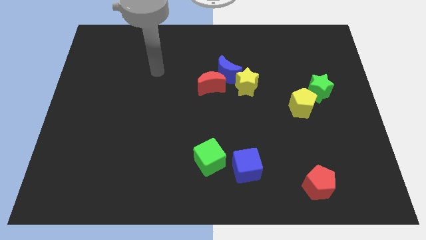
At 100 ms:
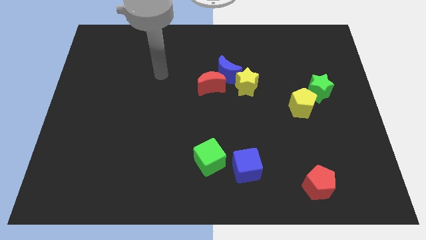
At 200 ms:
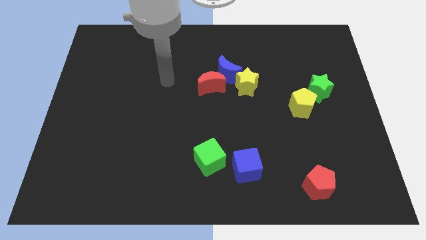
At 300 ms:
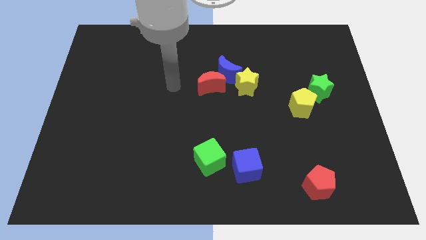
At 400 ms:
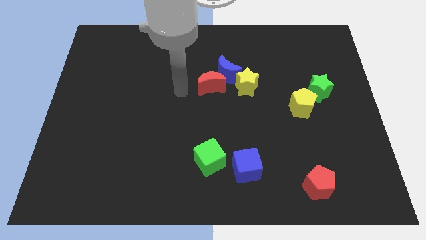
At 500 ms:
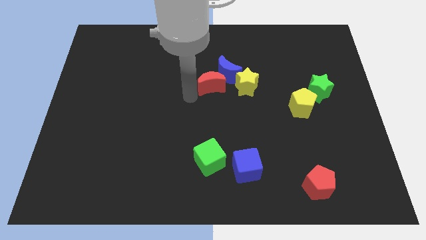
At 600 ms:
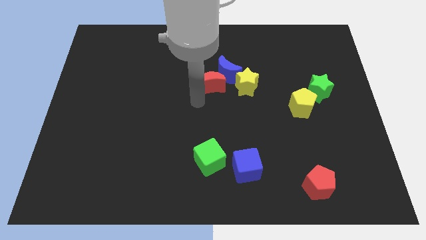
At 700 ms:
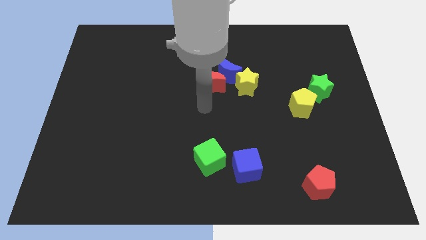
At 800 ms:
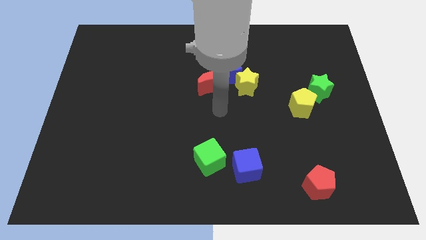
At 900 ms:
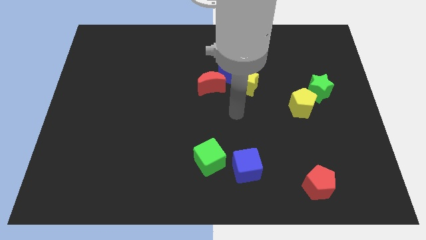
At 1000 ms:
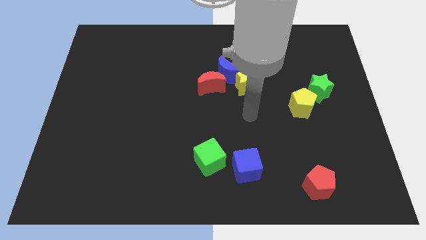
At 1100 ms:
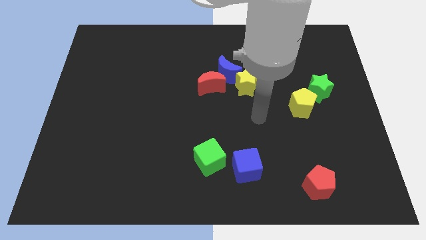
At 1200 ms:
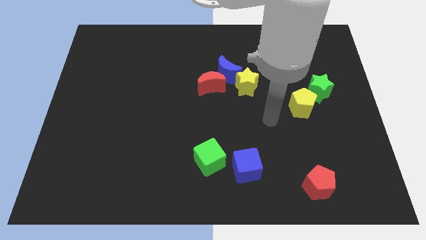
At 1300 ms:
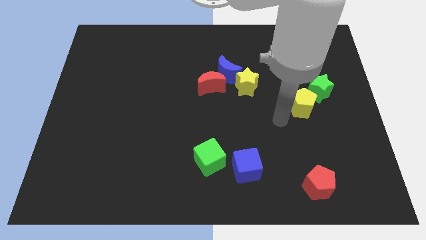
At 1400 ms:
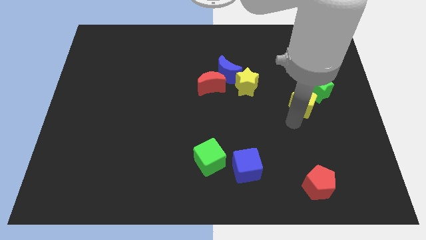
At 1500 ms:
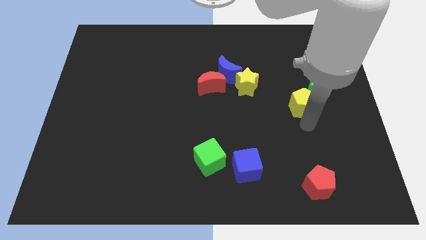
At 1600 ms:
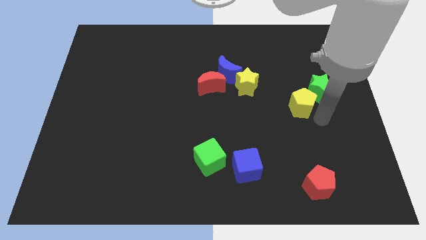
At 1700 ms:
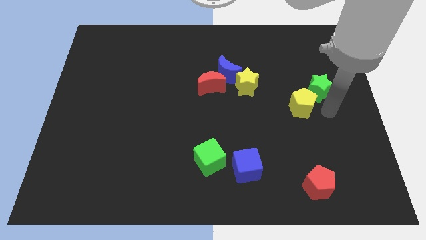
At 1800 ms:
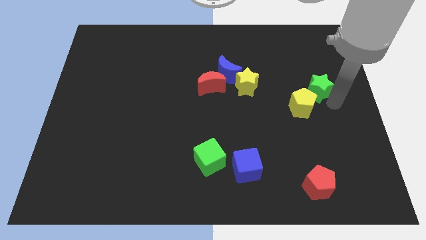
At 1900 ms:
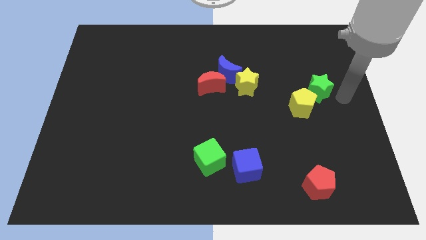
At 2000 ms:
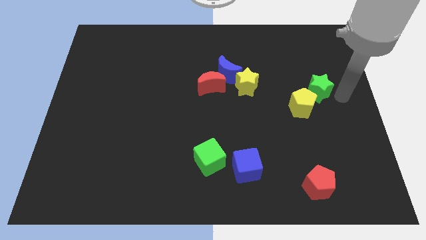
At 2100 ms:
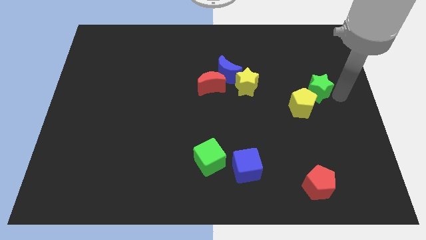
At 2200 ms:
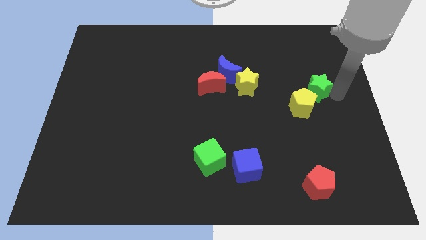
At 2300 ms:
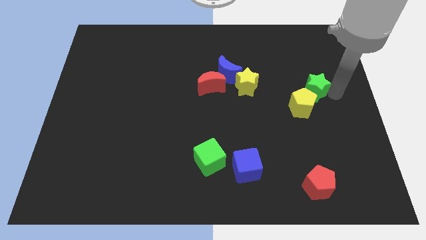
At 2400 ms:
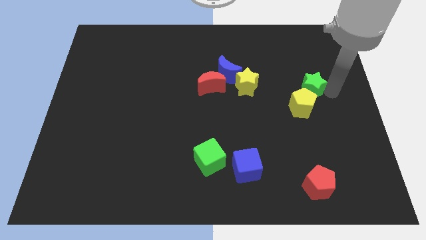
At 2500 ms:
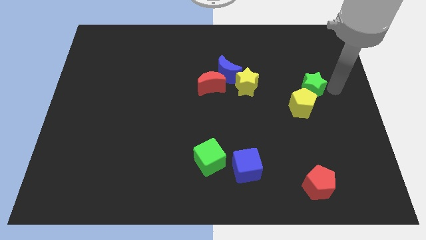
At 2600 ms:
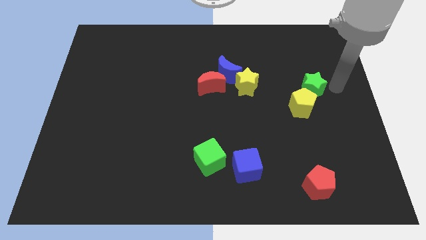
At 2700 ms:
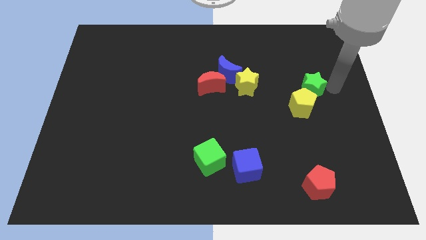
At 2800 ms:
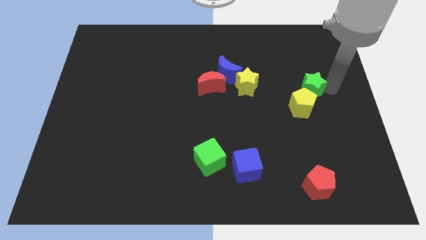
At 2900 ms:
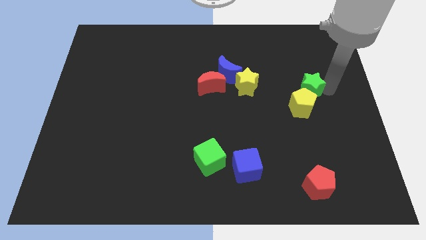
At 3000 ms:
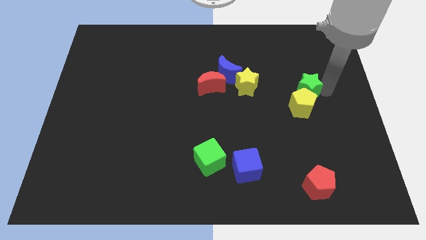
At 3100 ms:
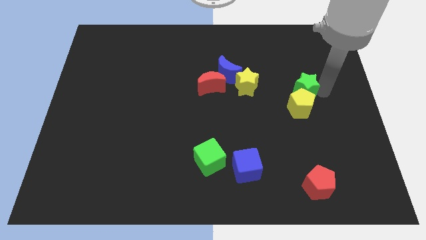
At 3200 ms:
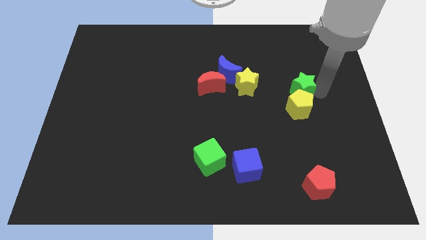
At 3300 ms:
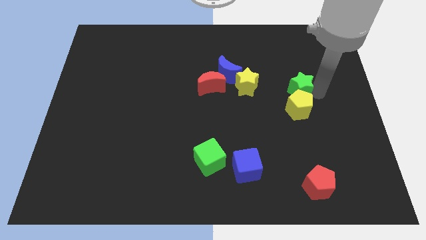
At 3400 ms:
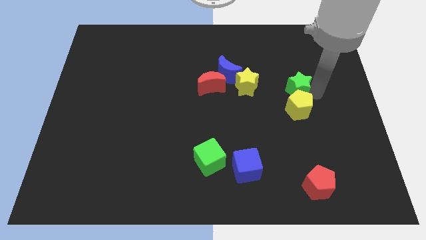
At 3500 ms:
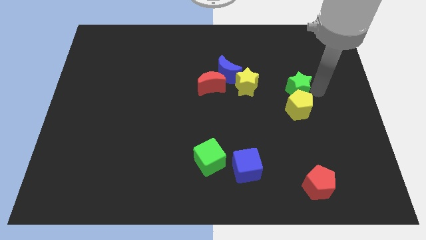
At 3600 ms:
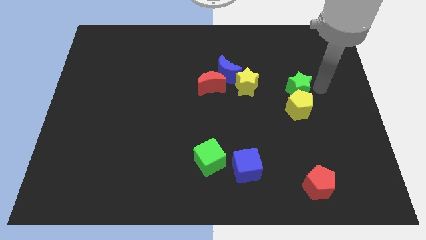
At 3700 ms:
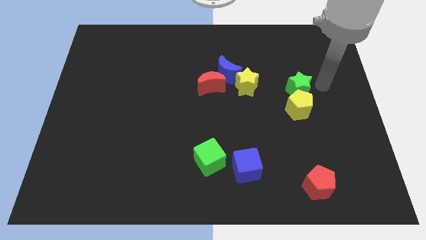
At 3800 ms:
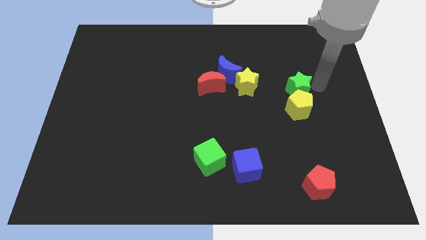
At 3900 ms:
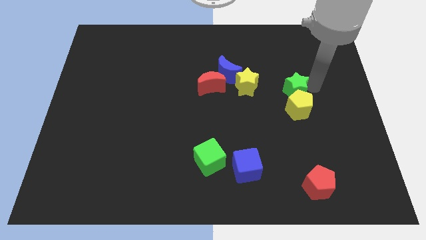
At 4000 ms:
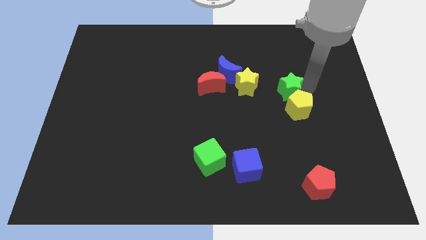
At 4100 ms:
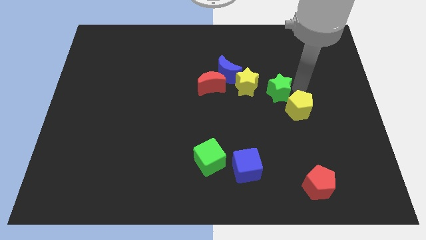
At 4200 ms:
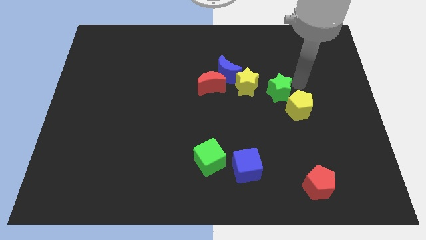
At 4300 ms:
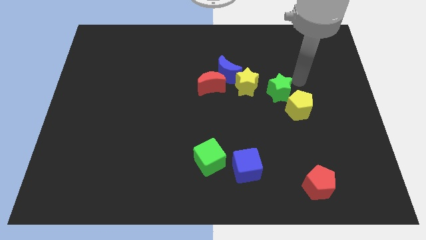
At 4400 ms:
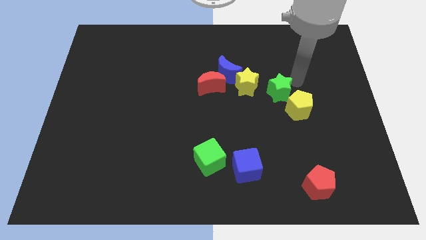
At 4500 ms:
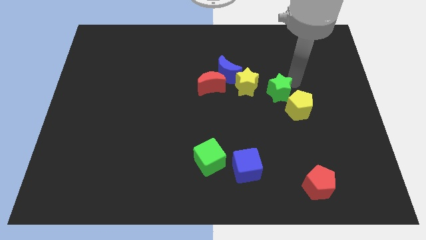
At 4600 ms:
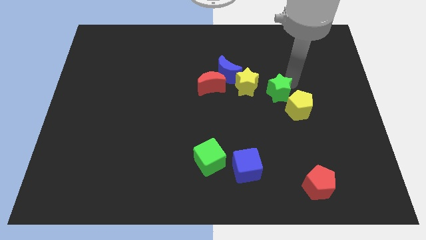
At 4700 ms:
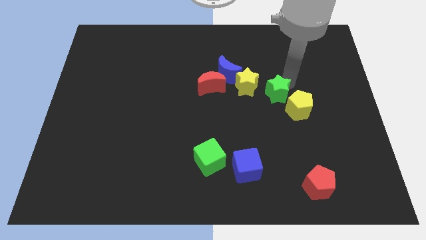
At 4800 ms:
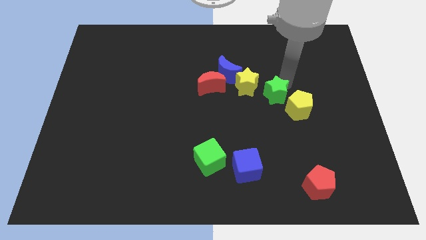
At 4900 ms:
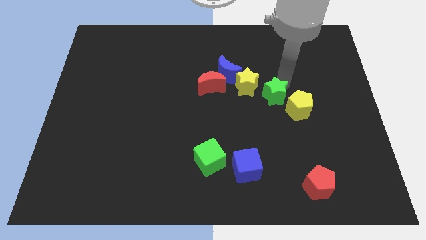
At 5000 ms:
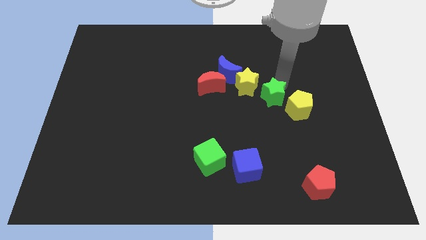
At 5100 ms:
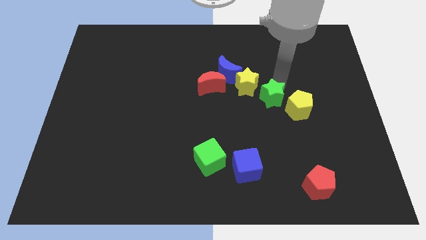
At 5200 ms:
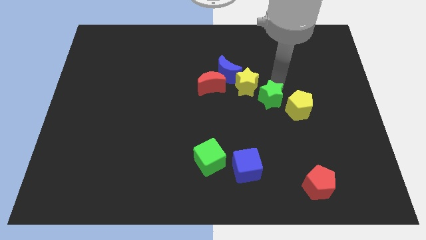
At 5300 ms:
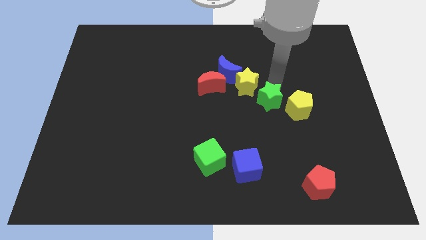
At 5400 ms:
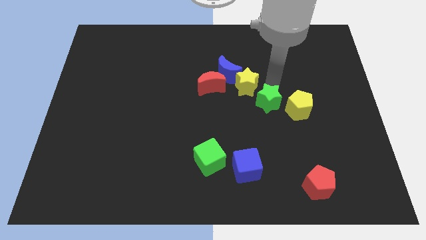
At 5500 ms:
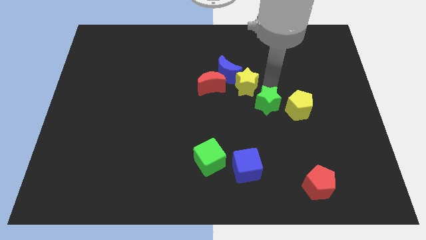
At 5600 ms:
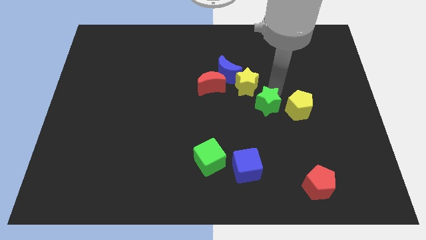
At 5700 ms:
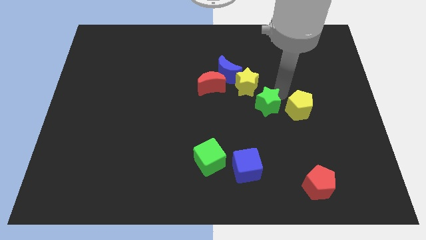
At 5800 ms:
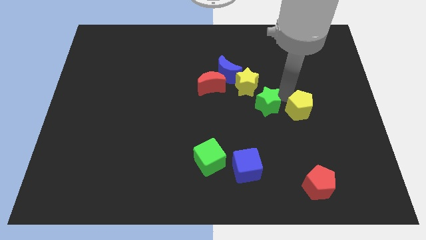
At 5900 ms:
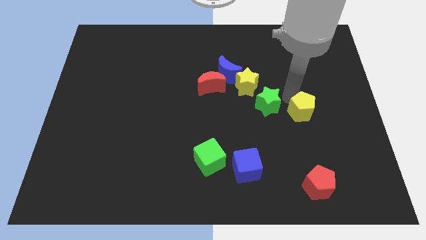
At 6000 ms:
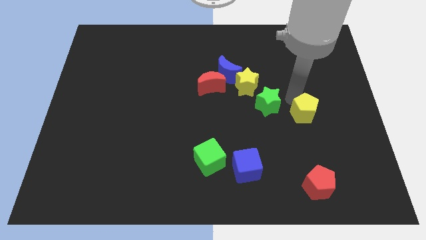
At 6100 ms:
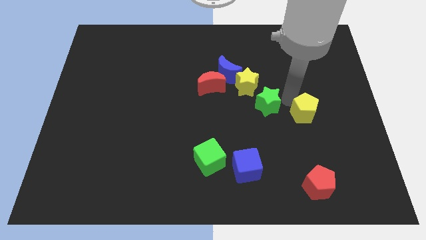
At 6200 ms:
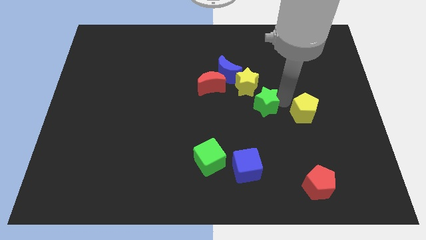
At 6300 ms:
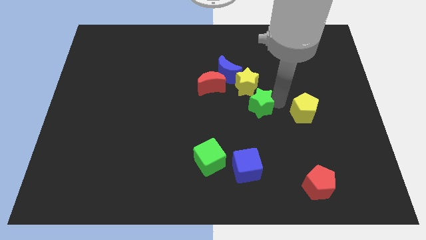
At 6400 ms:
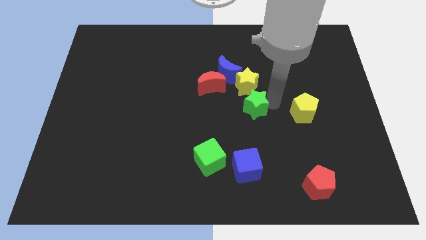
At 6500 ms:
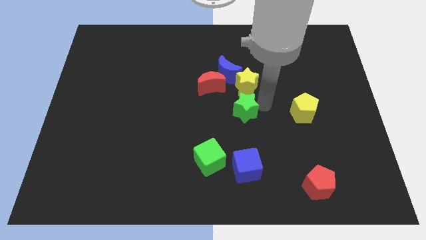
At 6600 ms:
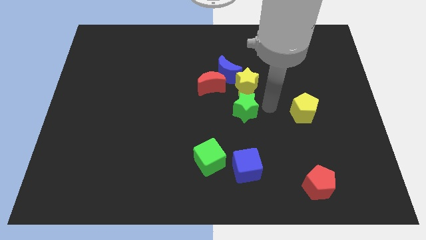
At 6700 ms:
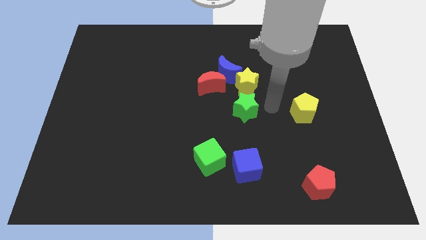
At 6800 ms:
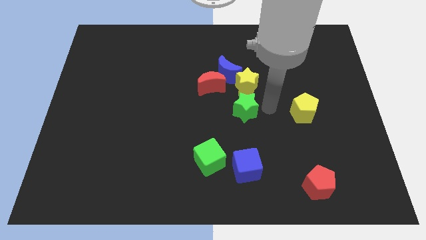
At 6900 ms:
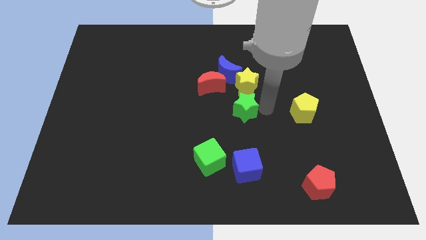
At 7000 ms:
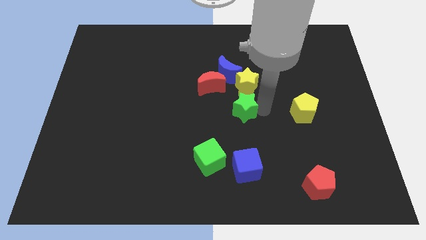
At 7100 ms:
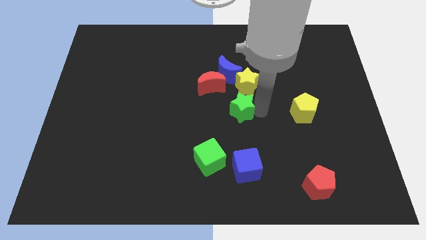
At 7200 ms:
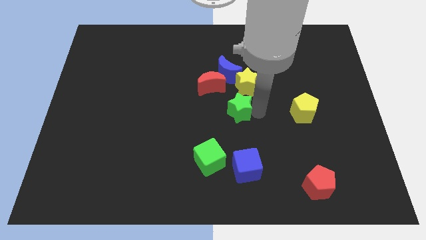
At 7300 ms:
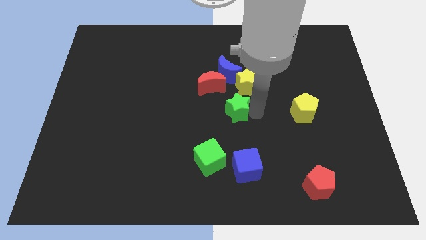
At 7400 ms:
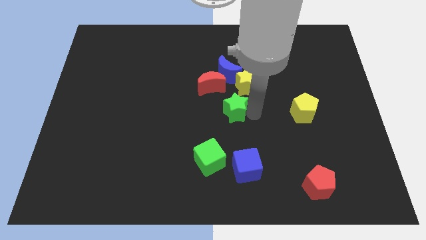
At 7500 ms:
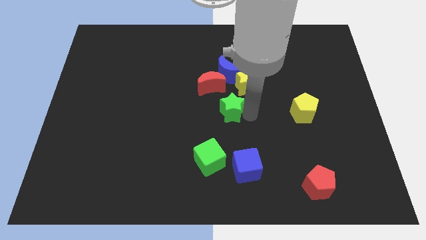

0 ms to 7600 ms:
push the green star left

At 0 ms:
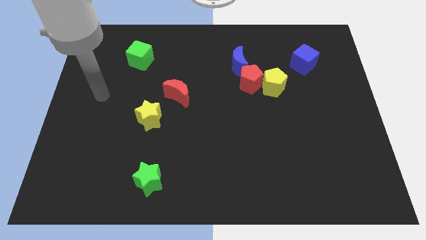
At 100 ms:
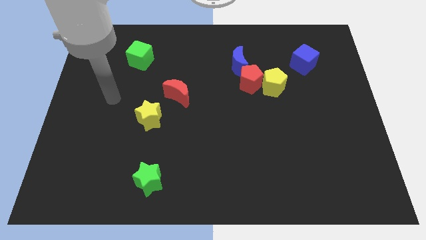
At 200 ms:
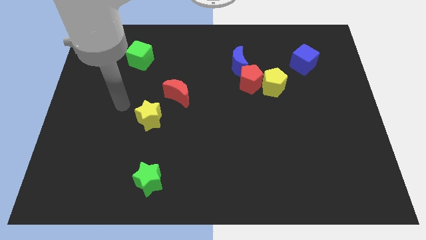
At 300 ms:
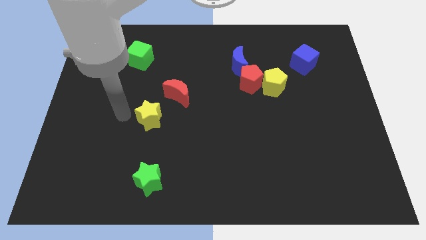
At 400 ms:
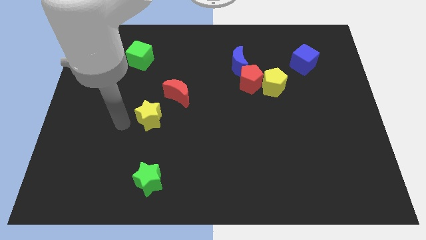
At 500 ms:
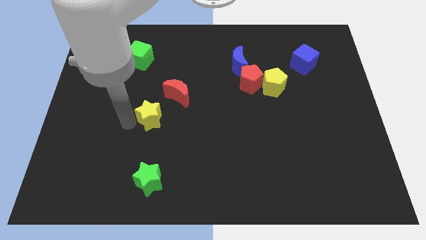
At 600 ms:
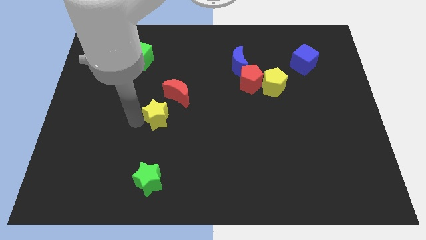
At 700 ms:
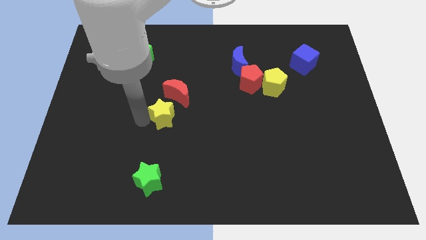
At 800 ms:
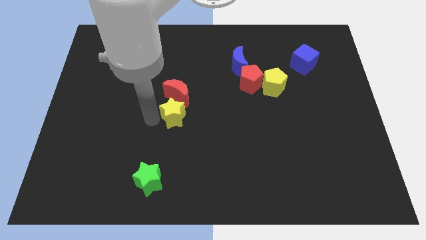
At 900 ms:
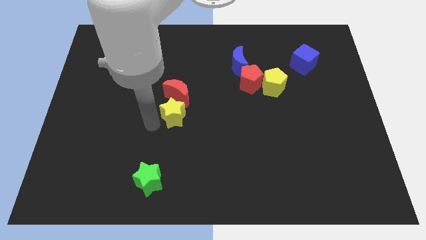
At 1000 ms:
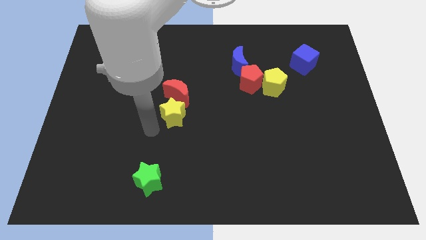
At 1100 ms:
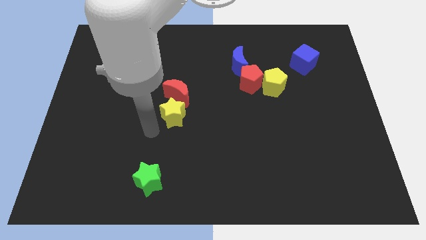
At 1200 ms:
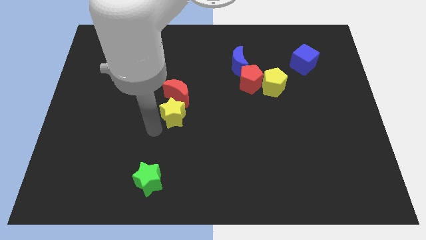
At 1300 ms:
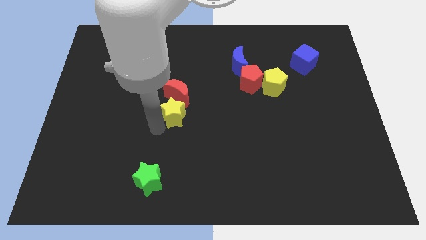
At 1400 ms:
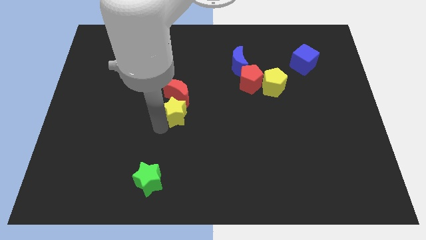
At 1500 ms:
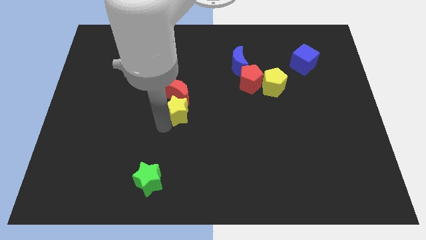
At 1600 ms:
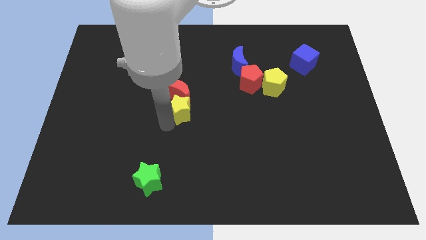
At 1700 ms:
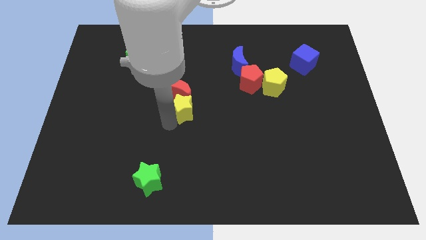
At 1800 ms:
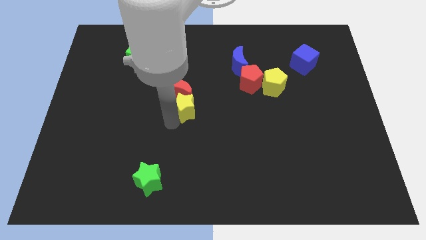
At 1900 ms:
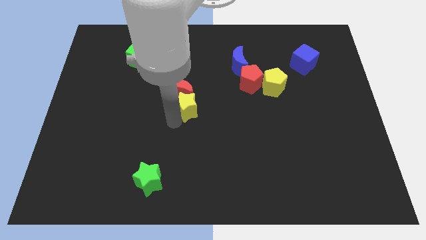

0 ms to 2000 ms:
slightly slide the yellow star diagonally upwards and to the right
